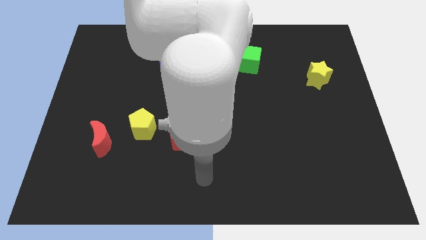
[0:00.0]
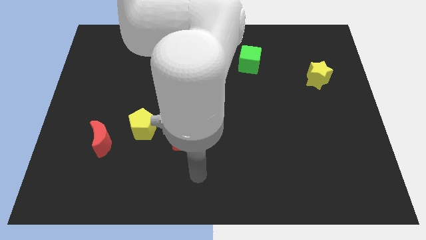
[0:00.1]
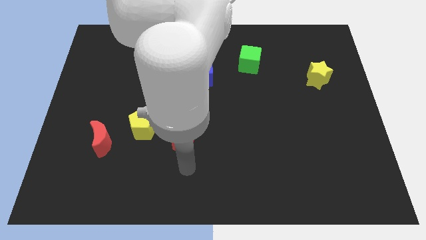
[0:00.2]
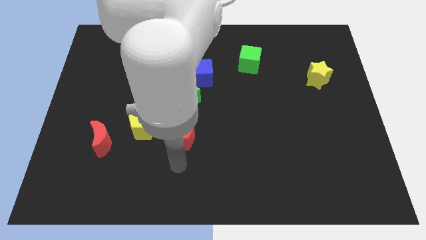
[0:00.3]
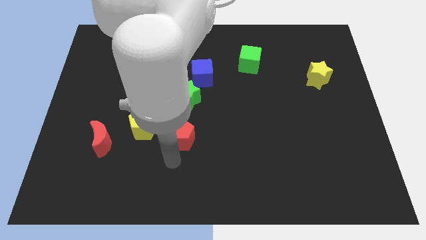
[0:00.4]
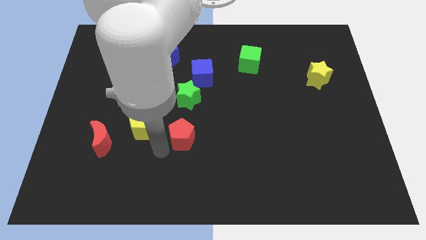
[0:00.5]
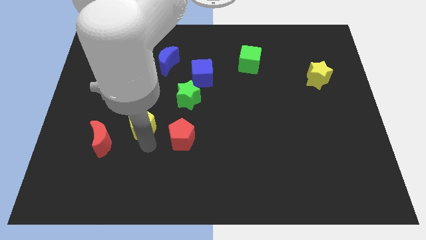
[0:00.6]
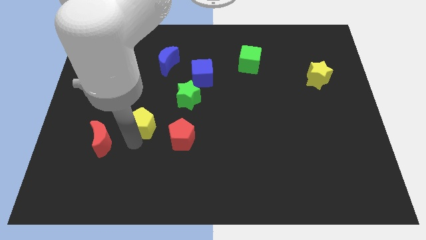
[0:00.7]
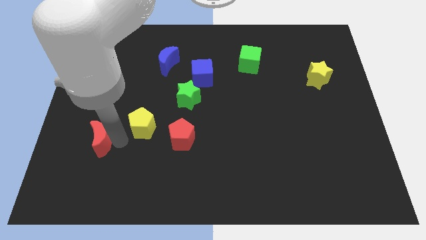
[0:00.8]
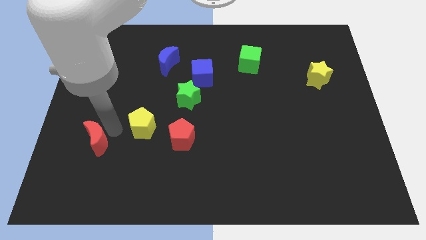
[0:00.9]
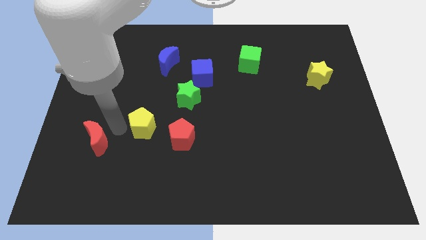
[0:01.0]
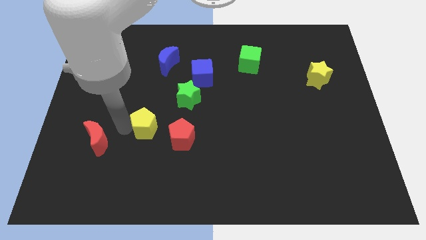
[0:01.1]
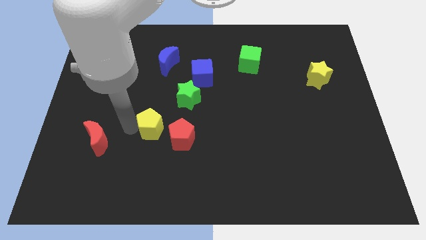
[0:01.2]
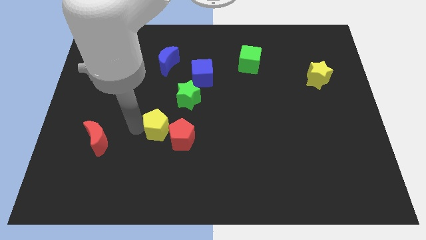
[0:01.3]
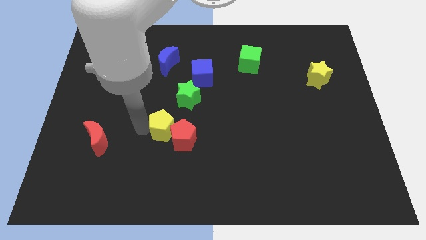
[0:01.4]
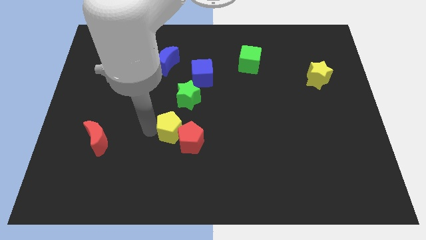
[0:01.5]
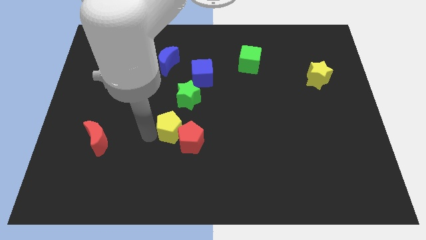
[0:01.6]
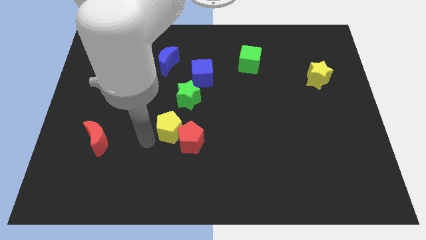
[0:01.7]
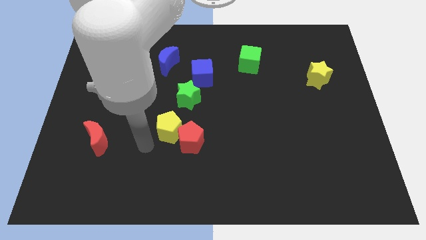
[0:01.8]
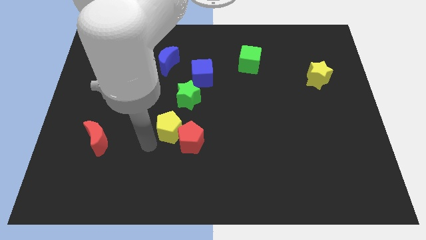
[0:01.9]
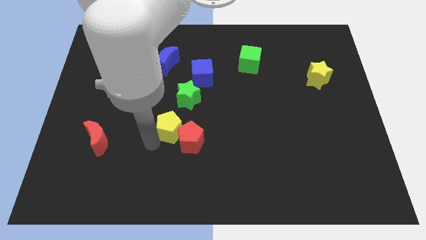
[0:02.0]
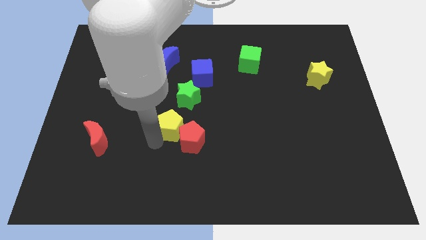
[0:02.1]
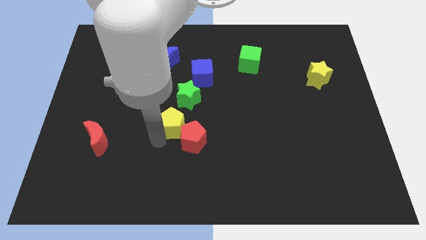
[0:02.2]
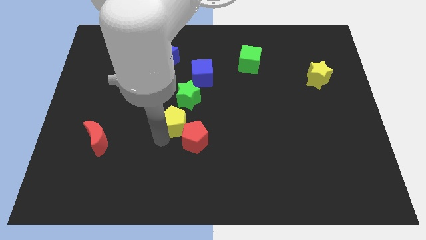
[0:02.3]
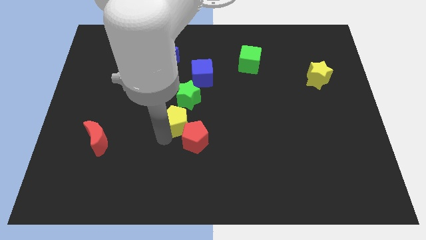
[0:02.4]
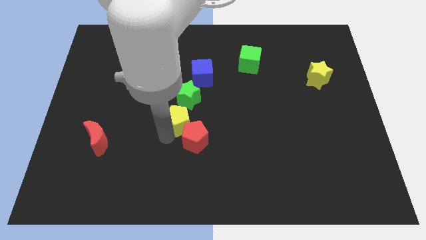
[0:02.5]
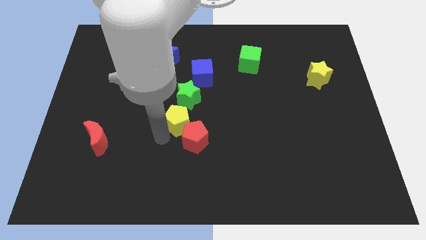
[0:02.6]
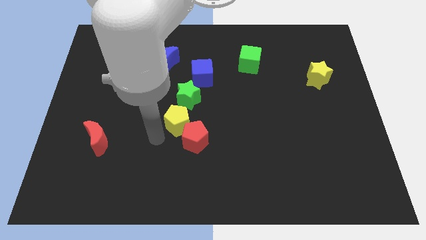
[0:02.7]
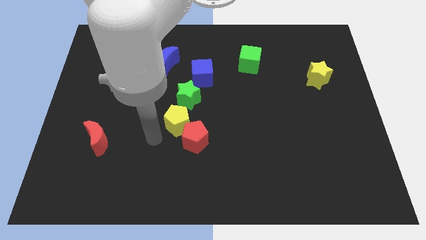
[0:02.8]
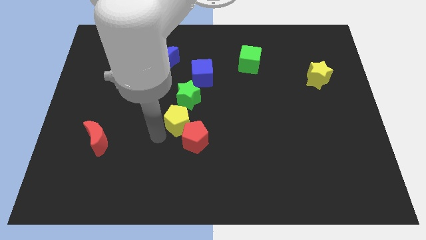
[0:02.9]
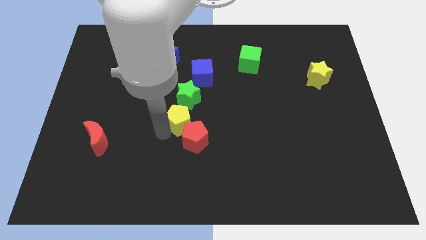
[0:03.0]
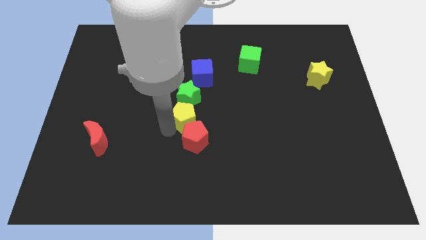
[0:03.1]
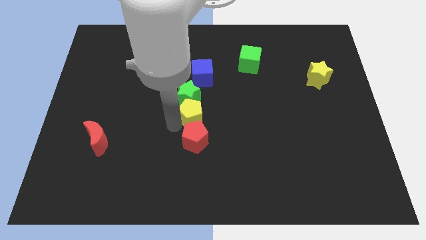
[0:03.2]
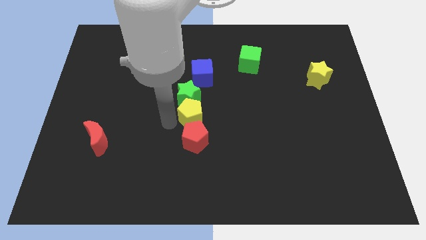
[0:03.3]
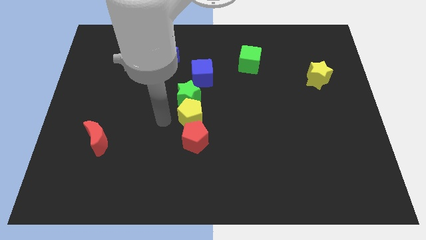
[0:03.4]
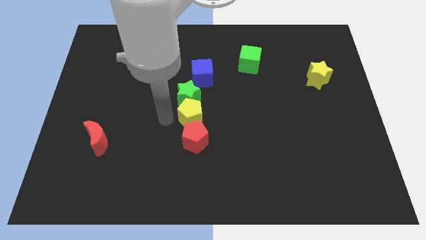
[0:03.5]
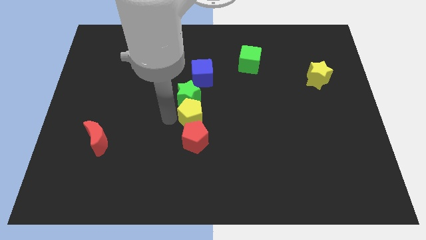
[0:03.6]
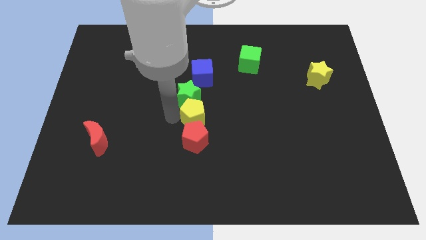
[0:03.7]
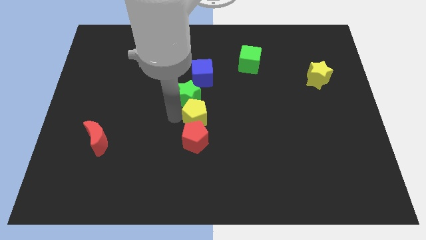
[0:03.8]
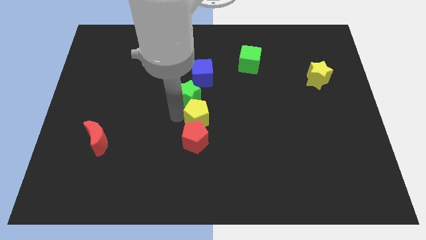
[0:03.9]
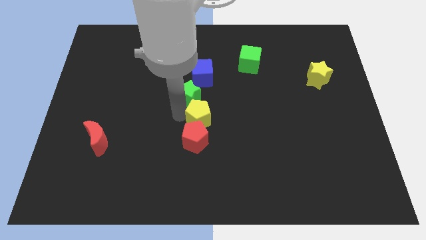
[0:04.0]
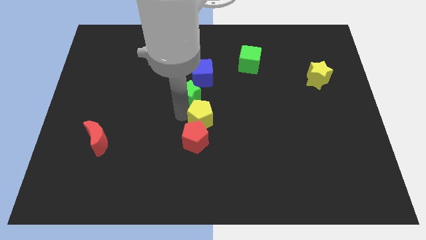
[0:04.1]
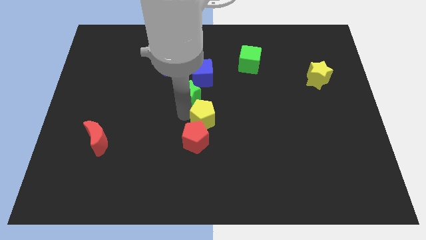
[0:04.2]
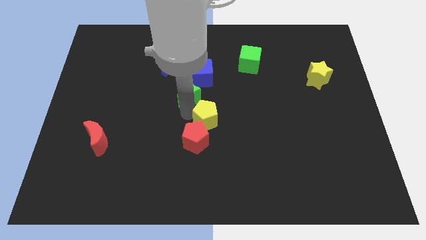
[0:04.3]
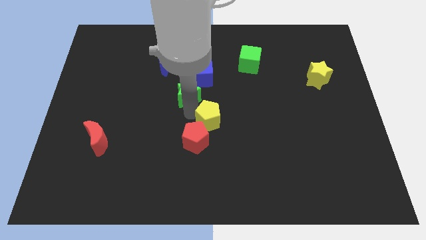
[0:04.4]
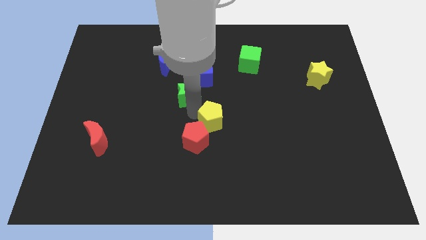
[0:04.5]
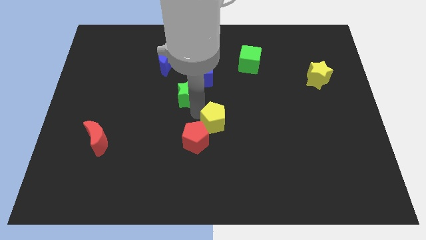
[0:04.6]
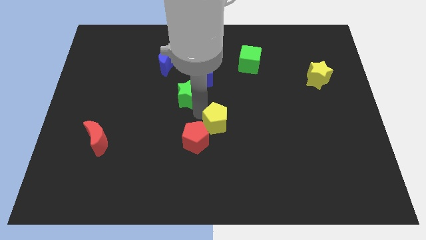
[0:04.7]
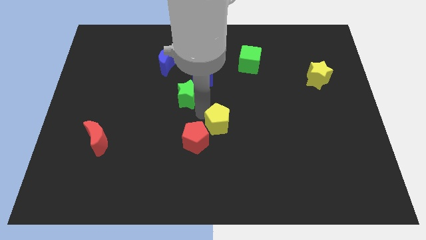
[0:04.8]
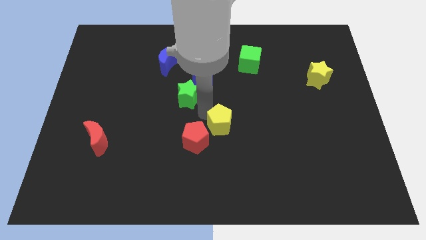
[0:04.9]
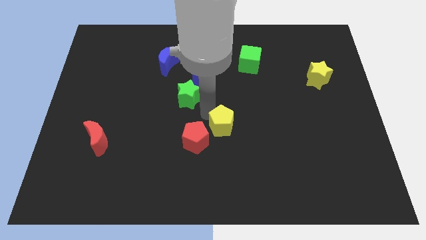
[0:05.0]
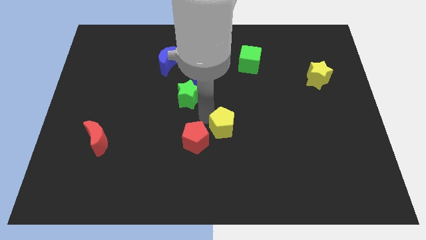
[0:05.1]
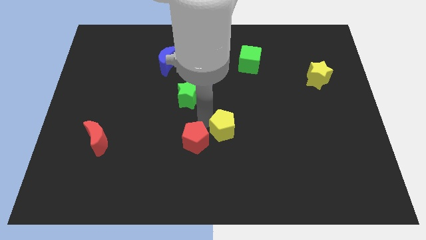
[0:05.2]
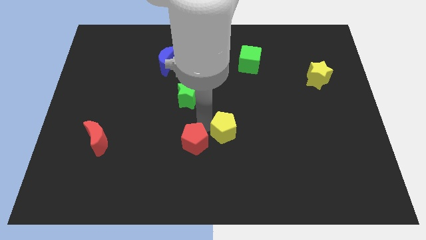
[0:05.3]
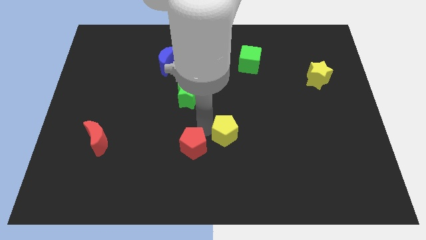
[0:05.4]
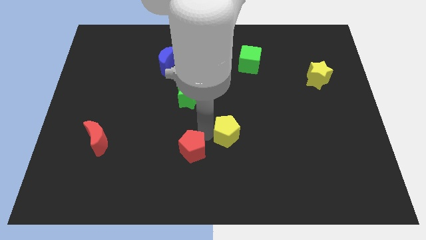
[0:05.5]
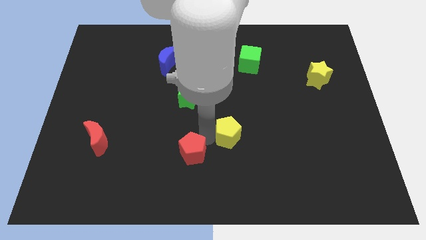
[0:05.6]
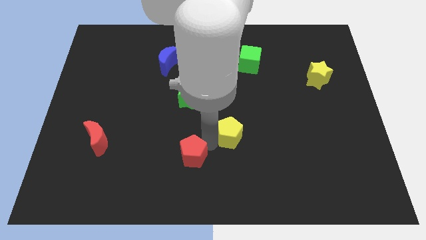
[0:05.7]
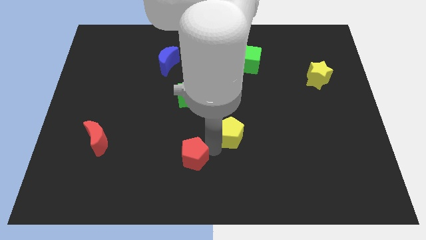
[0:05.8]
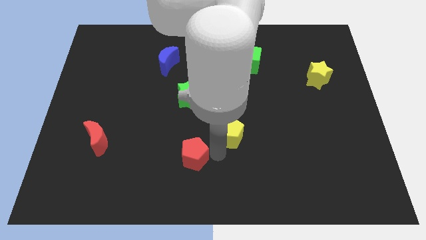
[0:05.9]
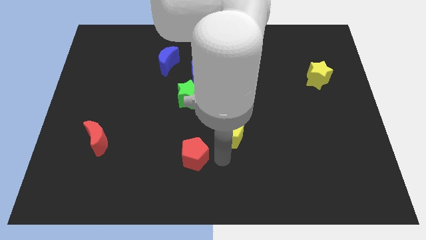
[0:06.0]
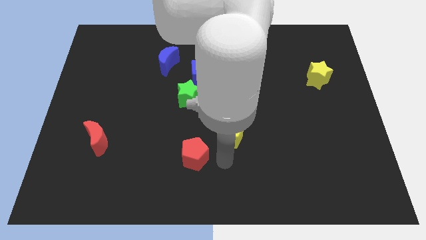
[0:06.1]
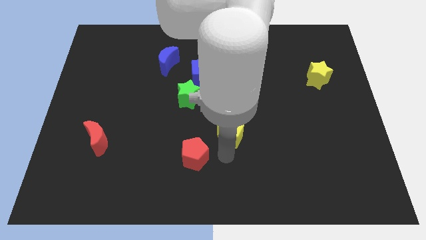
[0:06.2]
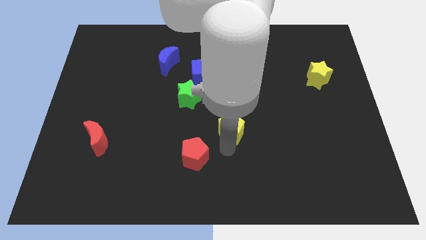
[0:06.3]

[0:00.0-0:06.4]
move the yellow pentagon right

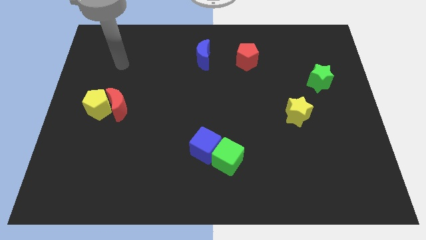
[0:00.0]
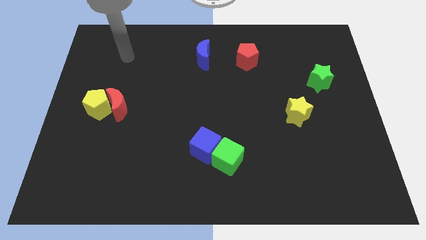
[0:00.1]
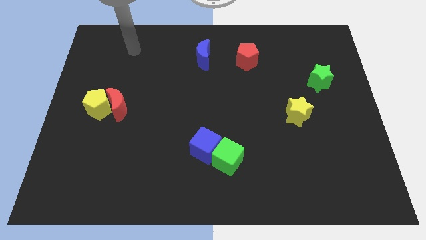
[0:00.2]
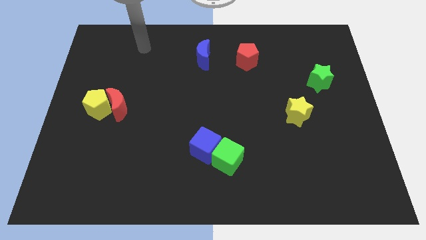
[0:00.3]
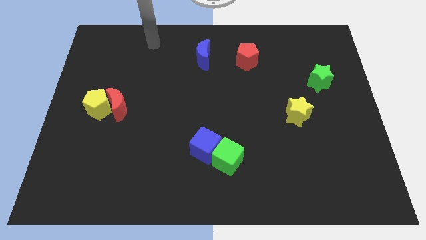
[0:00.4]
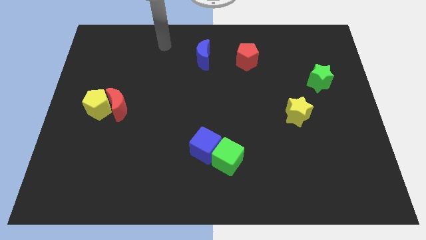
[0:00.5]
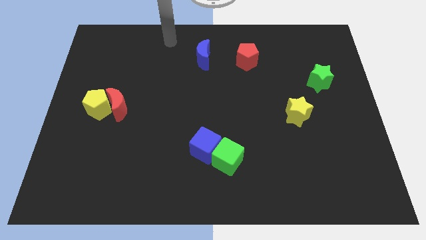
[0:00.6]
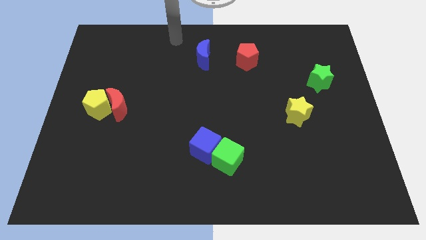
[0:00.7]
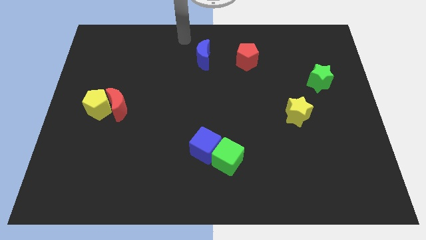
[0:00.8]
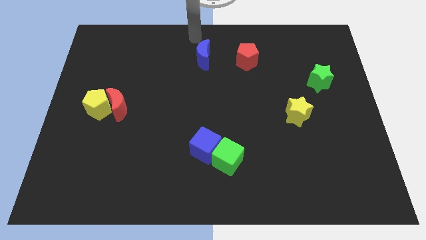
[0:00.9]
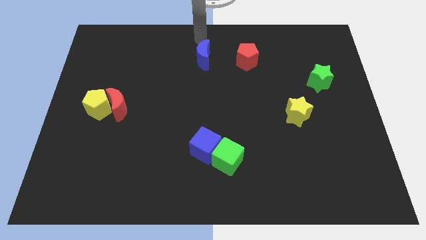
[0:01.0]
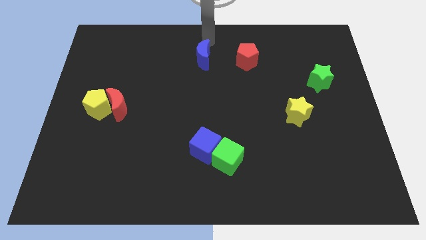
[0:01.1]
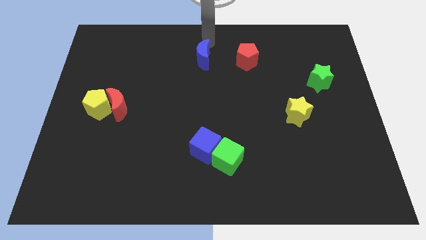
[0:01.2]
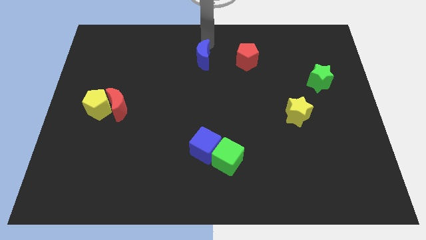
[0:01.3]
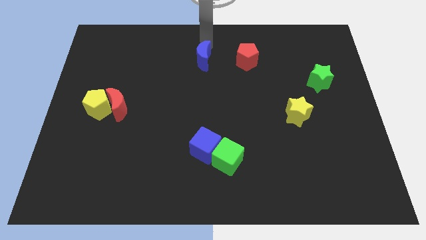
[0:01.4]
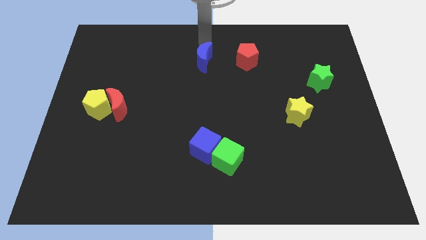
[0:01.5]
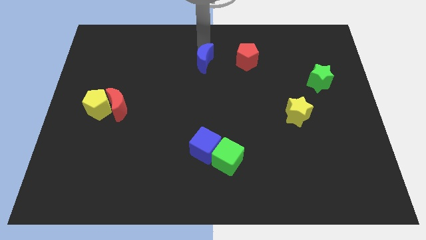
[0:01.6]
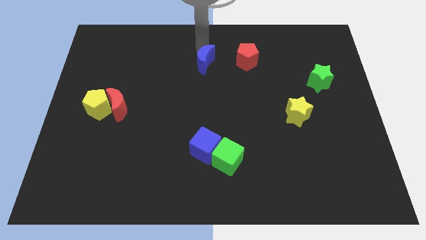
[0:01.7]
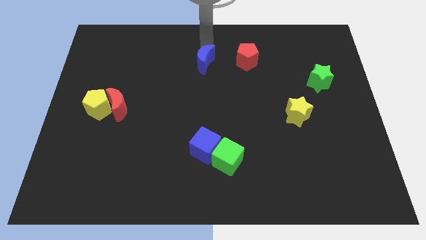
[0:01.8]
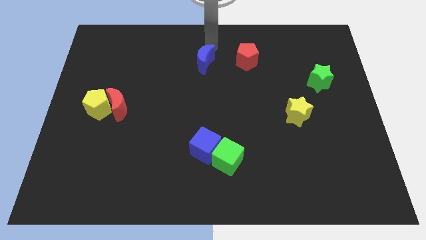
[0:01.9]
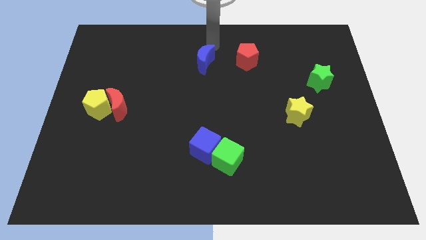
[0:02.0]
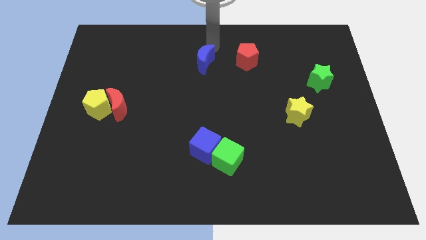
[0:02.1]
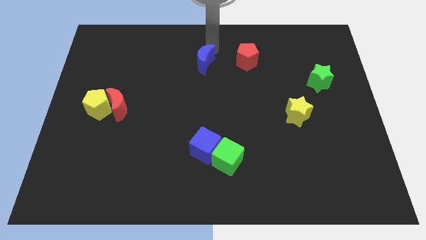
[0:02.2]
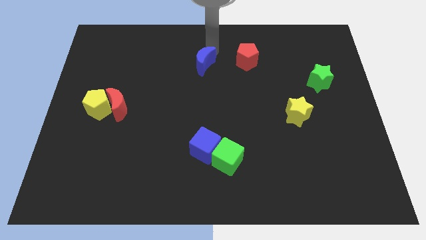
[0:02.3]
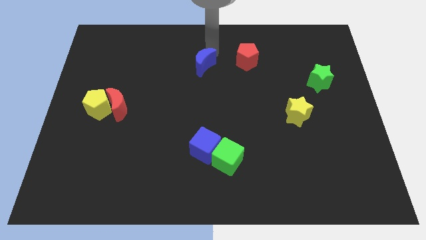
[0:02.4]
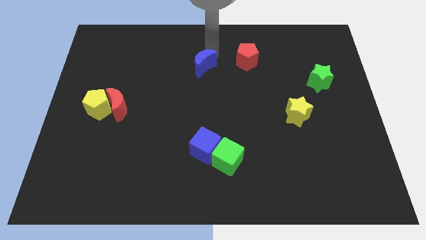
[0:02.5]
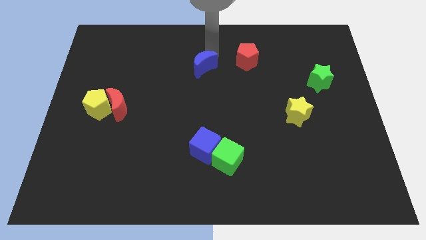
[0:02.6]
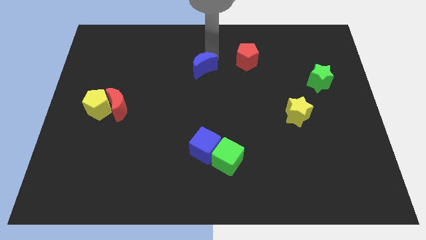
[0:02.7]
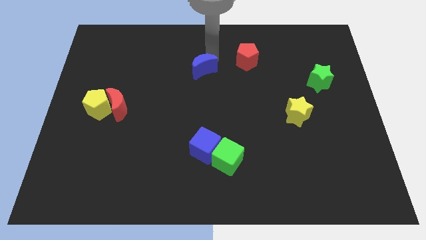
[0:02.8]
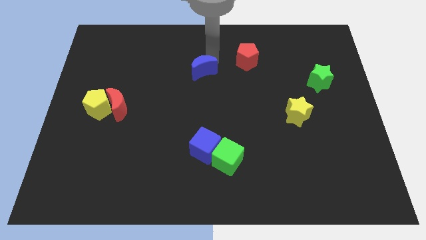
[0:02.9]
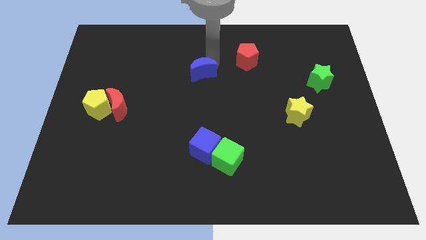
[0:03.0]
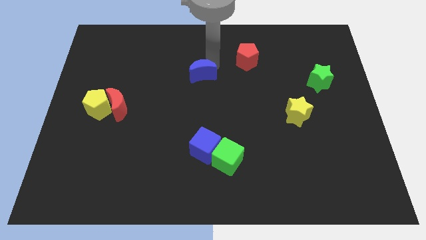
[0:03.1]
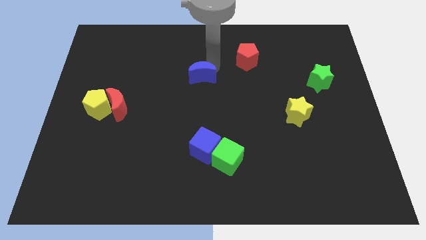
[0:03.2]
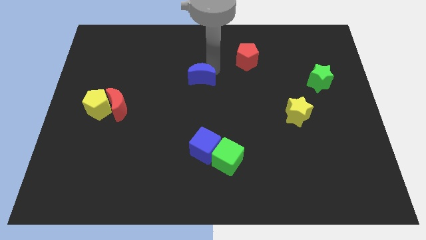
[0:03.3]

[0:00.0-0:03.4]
slightly slide the blue moon down
